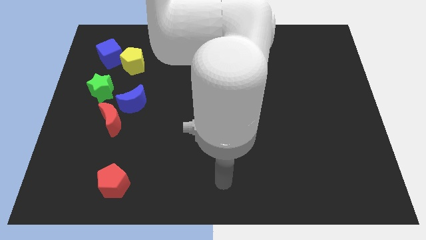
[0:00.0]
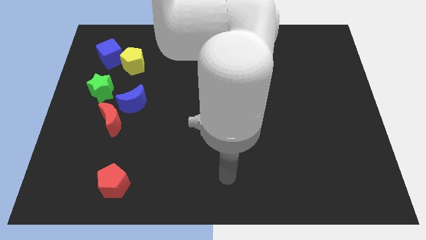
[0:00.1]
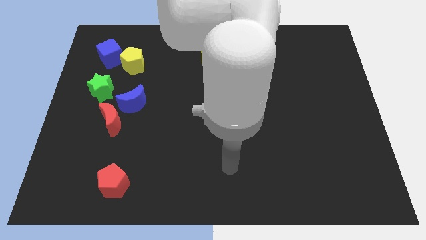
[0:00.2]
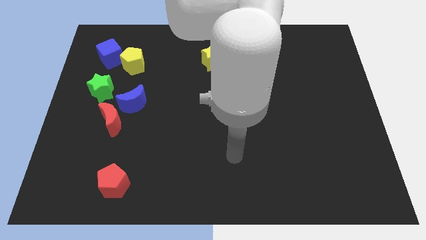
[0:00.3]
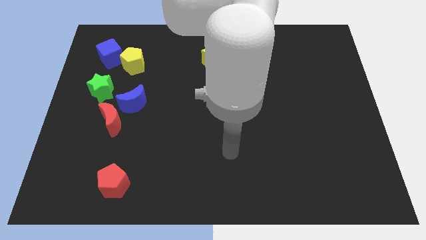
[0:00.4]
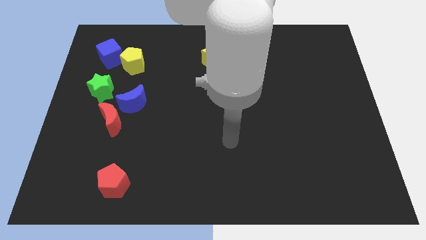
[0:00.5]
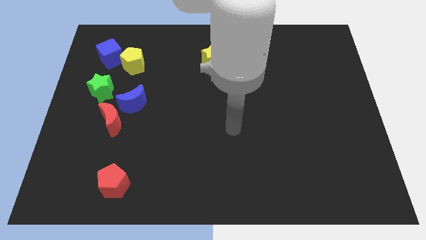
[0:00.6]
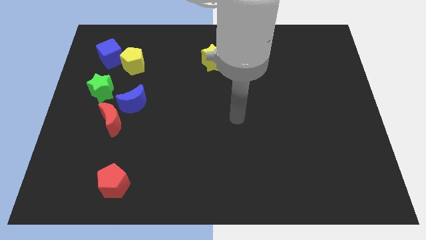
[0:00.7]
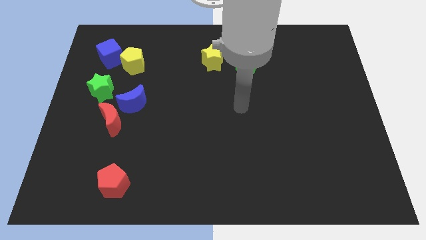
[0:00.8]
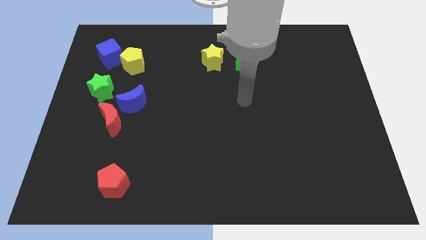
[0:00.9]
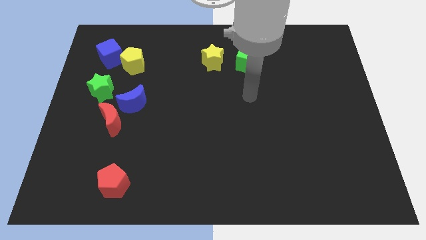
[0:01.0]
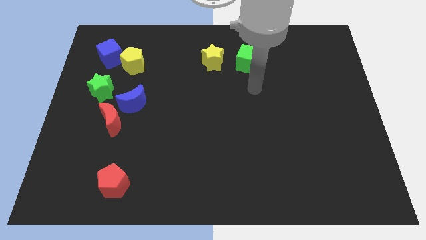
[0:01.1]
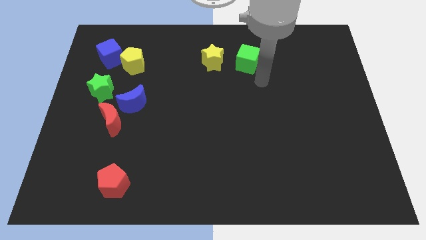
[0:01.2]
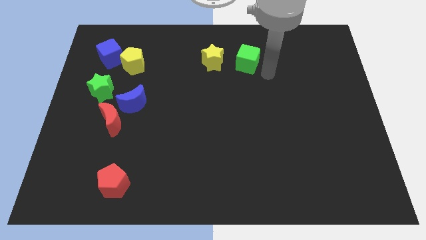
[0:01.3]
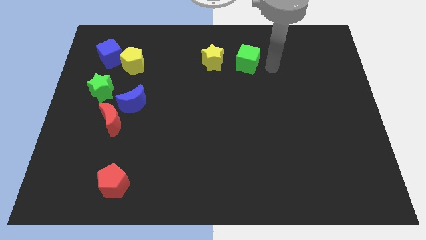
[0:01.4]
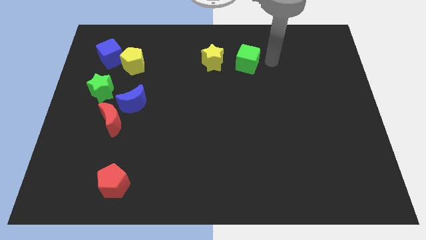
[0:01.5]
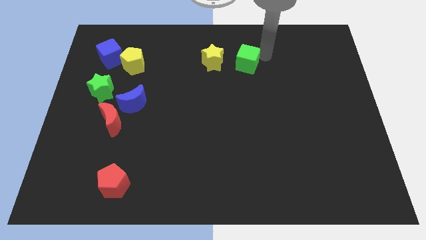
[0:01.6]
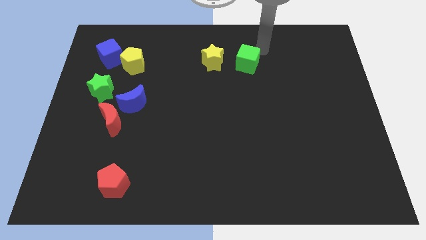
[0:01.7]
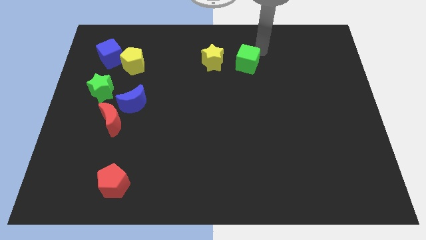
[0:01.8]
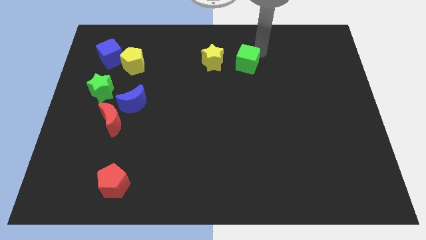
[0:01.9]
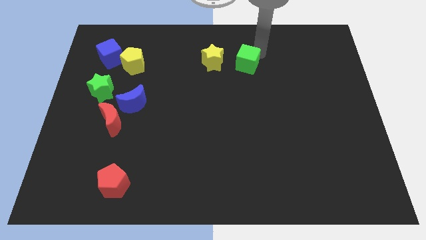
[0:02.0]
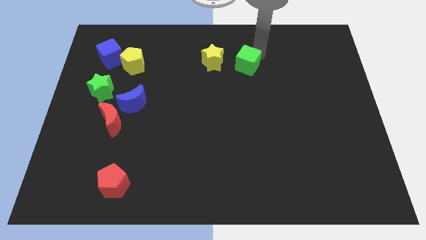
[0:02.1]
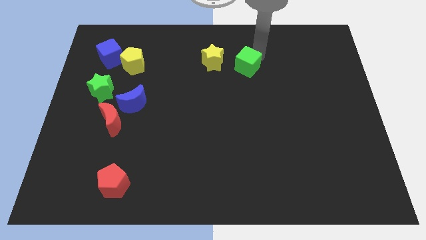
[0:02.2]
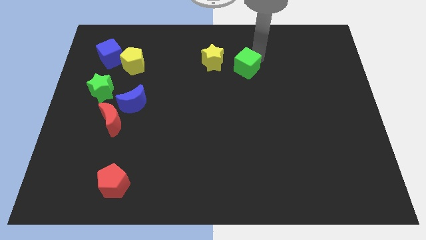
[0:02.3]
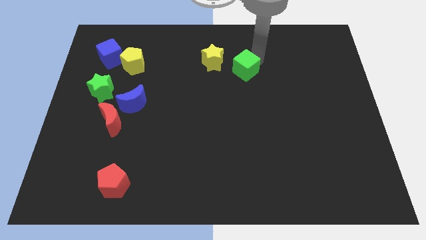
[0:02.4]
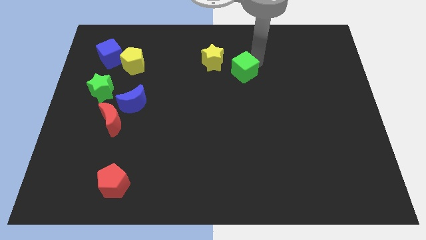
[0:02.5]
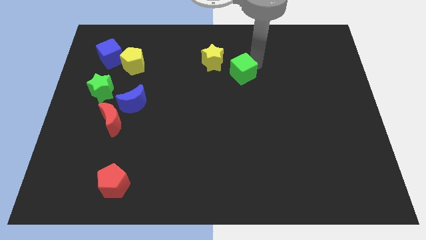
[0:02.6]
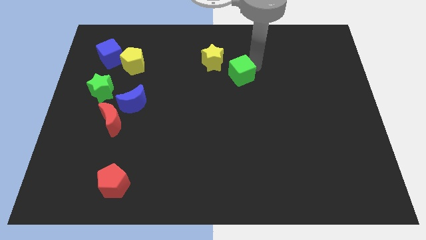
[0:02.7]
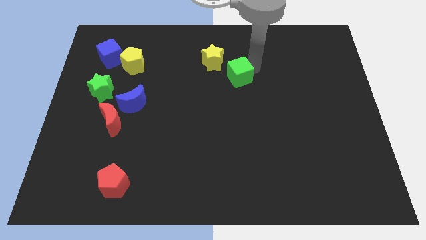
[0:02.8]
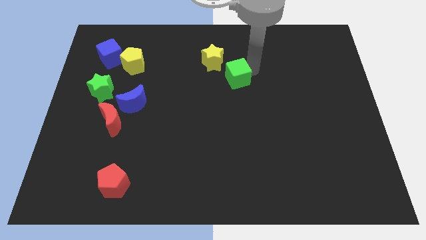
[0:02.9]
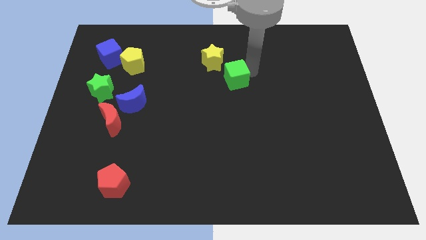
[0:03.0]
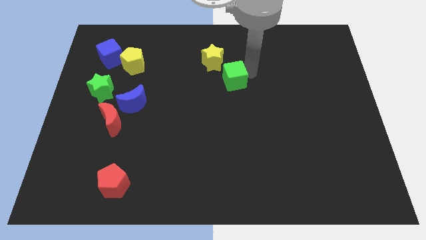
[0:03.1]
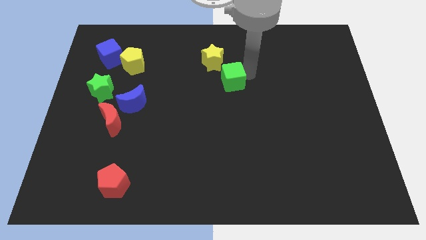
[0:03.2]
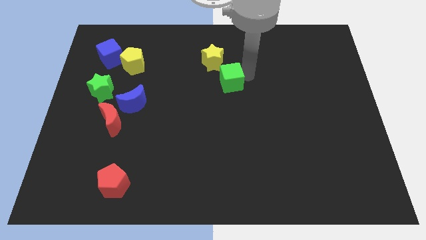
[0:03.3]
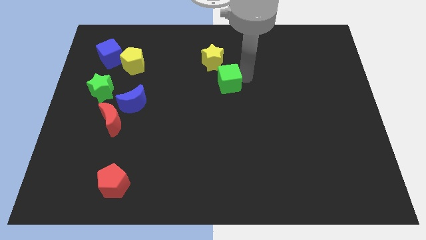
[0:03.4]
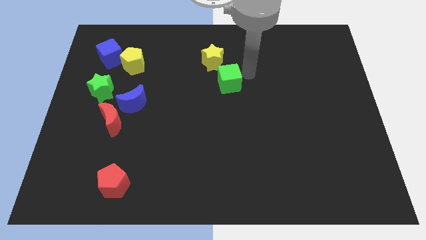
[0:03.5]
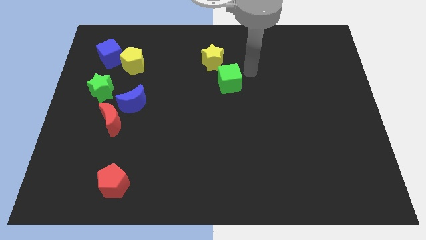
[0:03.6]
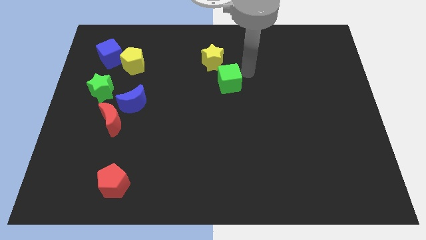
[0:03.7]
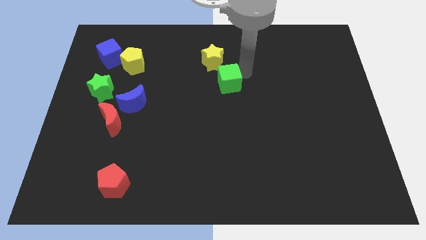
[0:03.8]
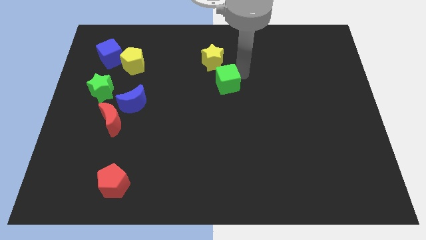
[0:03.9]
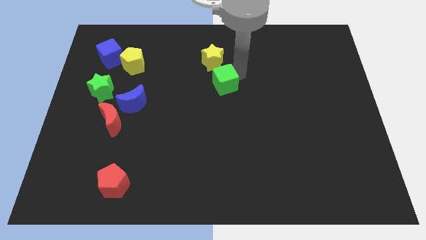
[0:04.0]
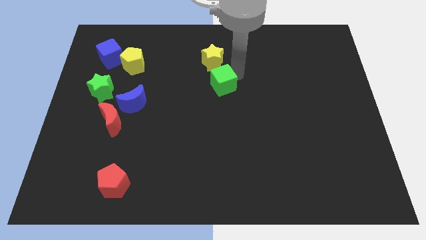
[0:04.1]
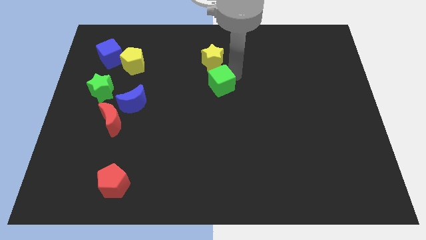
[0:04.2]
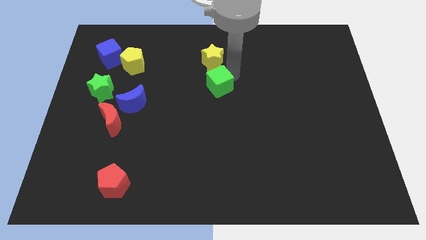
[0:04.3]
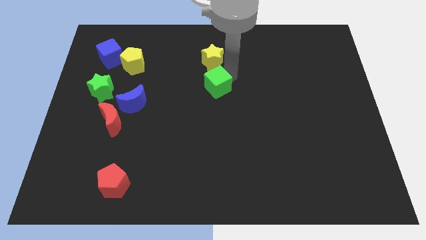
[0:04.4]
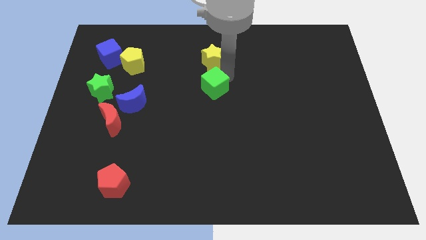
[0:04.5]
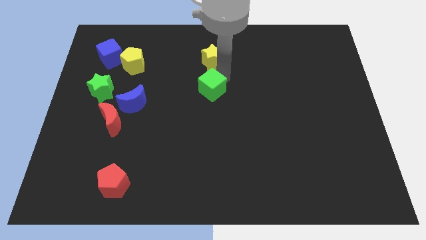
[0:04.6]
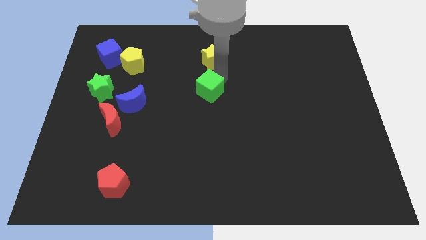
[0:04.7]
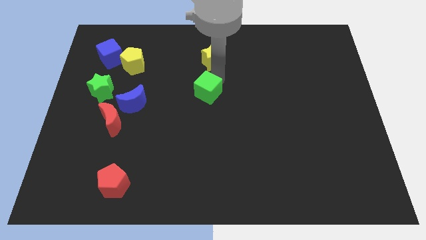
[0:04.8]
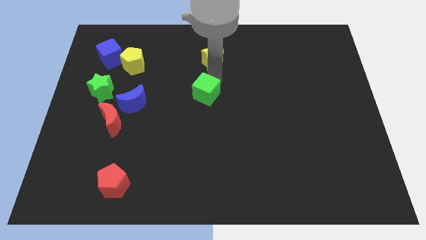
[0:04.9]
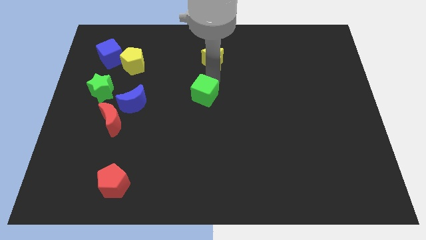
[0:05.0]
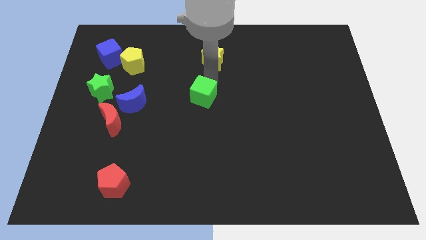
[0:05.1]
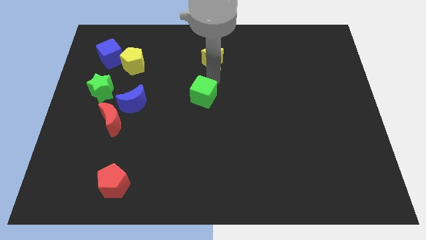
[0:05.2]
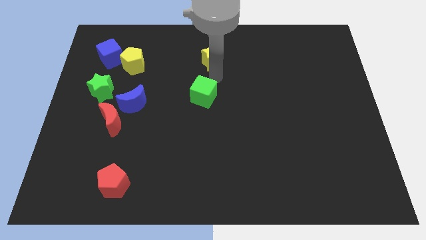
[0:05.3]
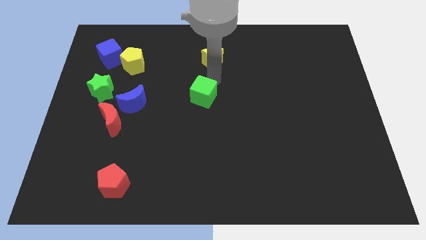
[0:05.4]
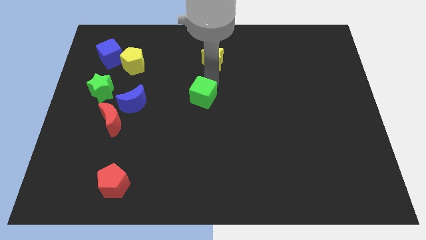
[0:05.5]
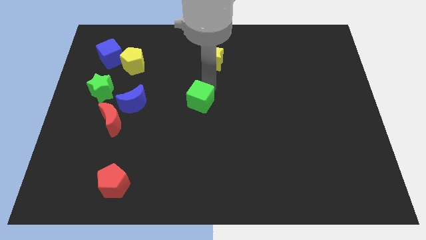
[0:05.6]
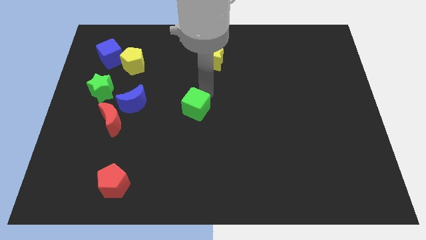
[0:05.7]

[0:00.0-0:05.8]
slide the green cube down and to the left diagonally

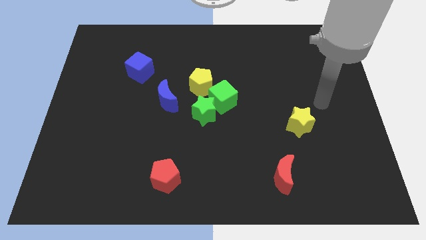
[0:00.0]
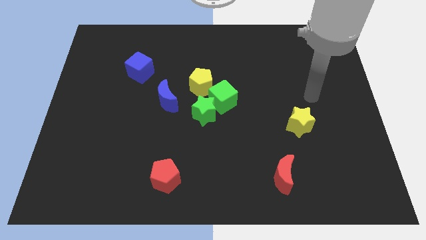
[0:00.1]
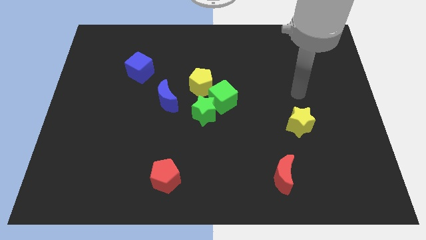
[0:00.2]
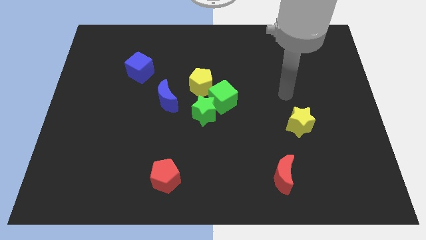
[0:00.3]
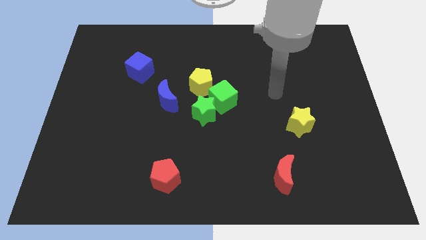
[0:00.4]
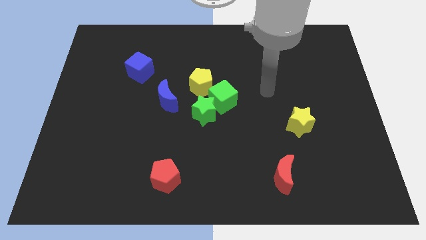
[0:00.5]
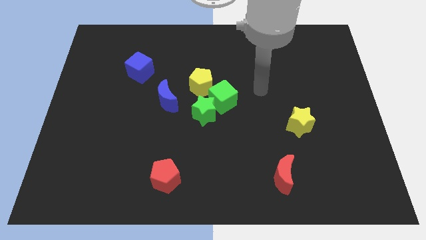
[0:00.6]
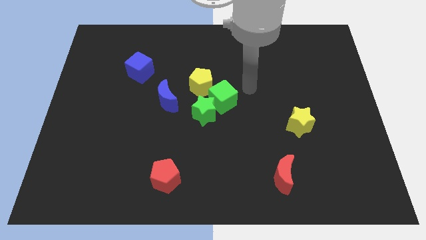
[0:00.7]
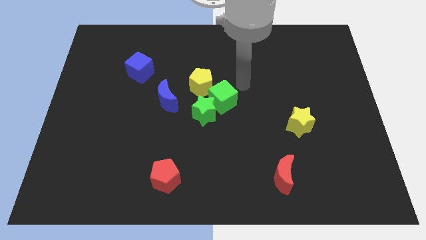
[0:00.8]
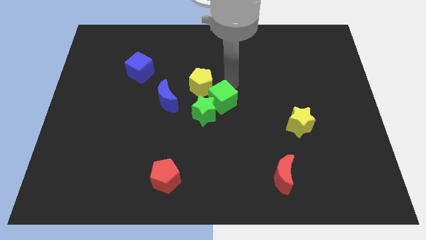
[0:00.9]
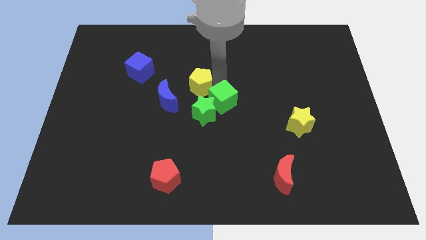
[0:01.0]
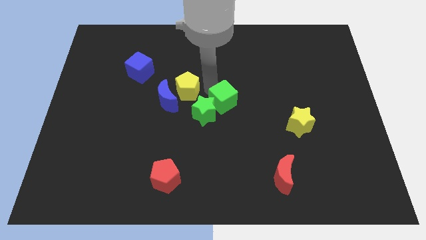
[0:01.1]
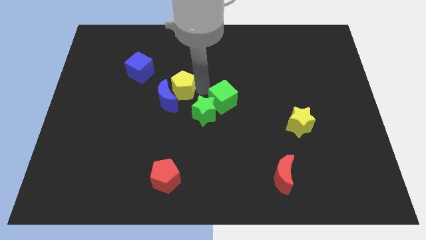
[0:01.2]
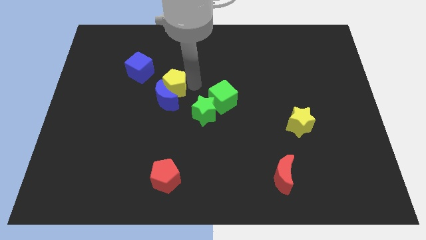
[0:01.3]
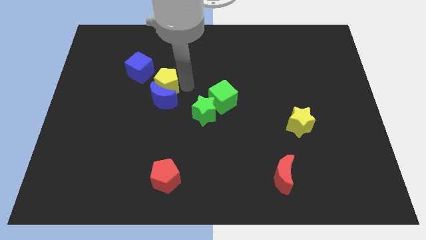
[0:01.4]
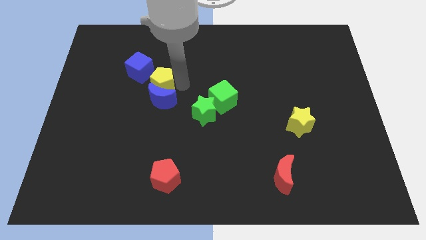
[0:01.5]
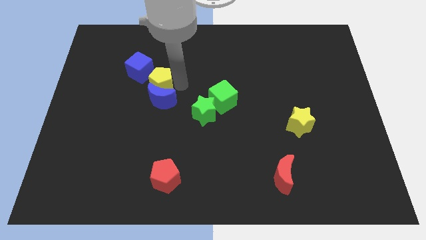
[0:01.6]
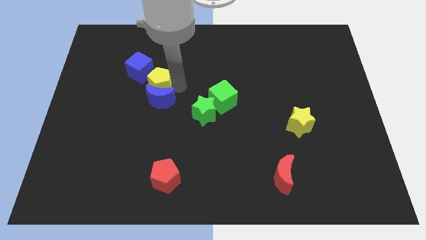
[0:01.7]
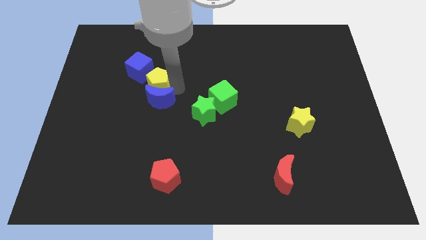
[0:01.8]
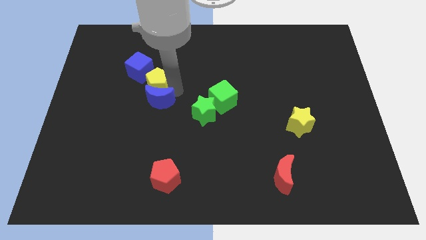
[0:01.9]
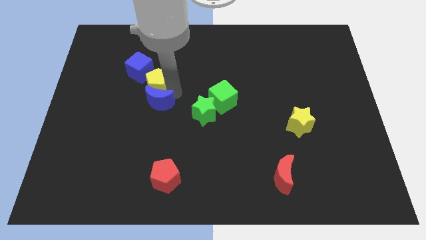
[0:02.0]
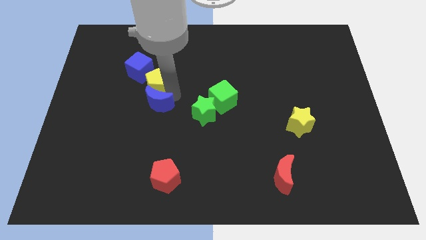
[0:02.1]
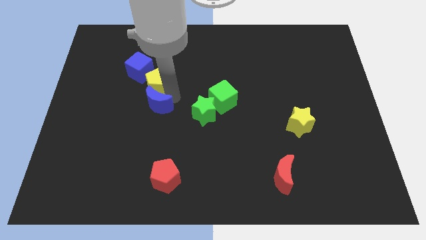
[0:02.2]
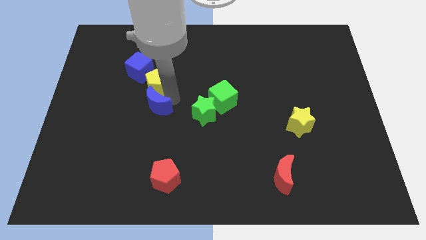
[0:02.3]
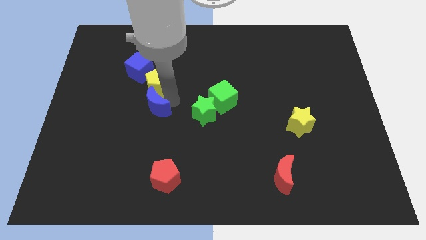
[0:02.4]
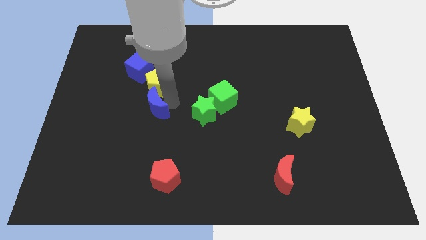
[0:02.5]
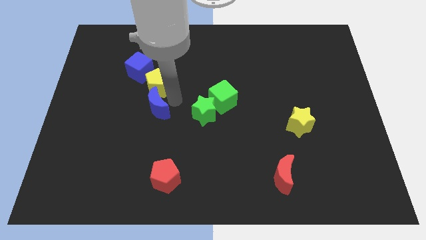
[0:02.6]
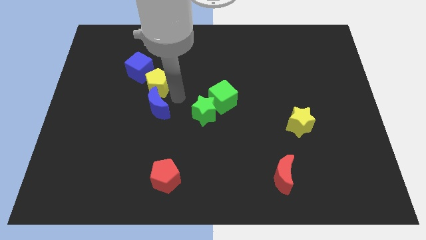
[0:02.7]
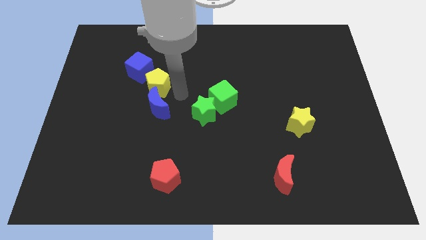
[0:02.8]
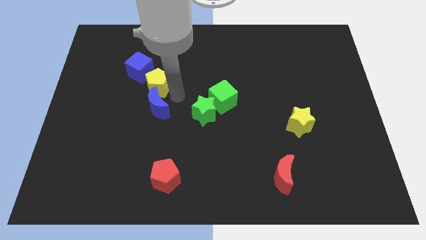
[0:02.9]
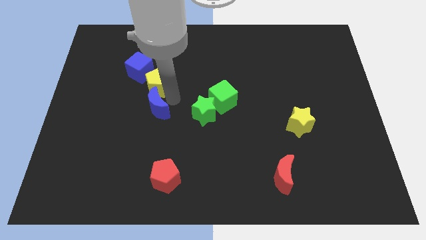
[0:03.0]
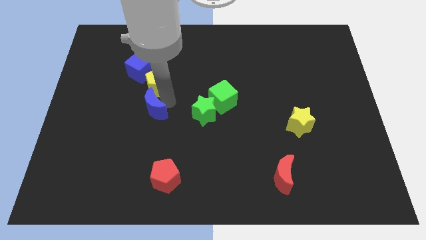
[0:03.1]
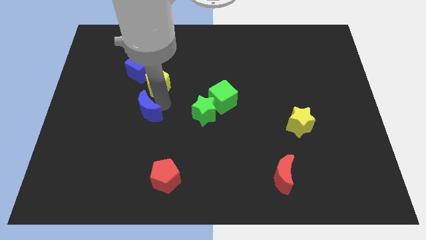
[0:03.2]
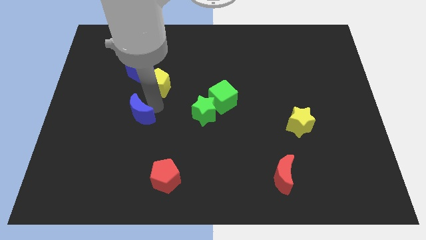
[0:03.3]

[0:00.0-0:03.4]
push the blue moon diagonally down and to the left a little
